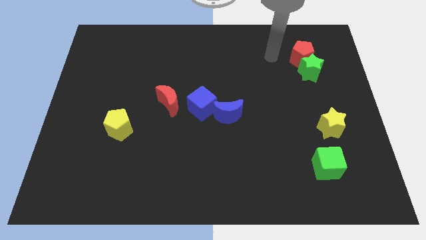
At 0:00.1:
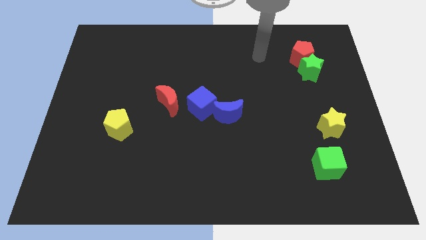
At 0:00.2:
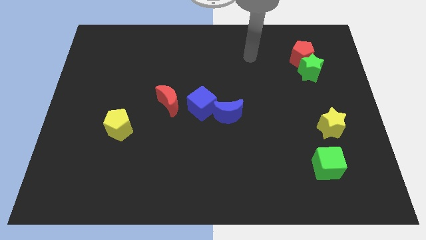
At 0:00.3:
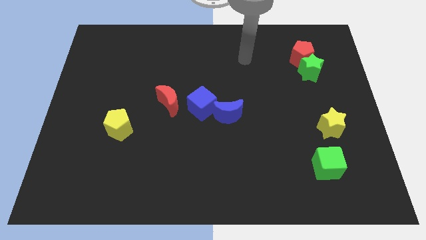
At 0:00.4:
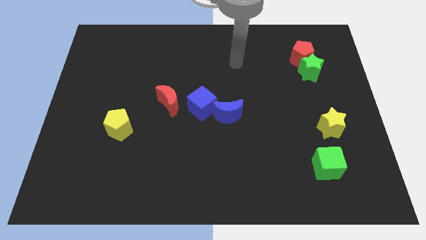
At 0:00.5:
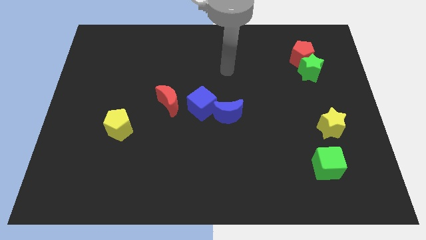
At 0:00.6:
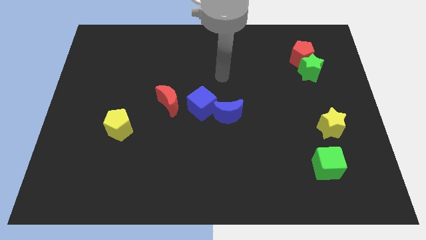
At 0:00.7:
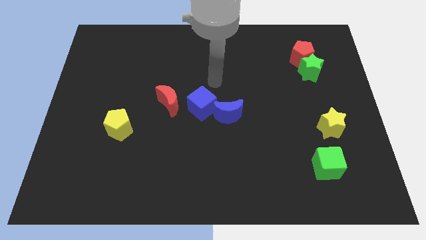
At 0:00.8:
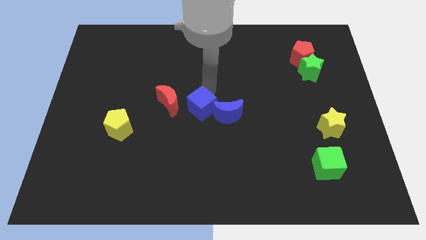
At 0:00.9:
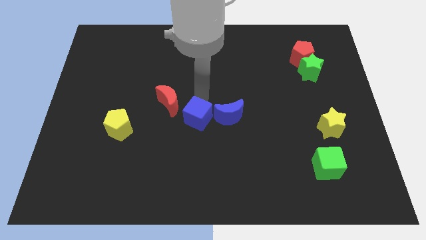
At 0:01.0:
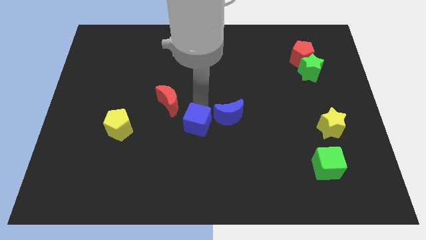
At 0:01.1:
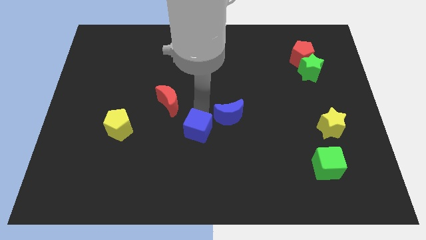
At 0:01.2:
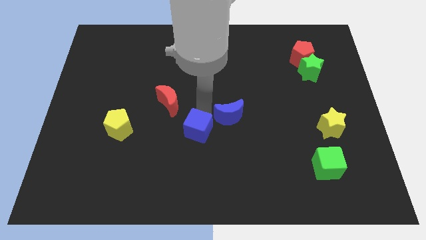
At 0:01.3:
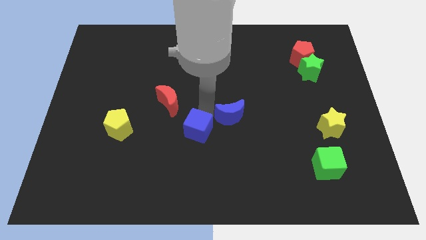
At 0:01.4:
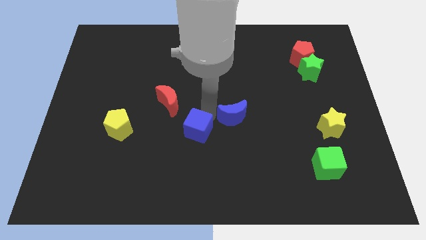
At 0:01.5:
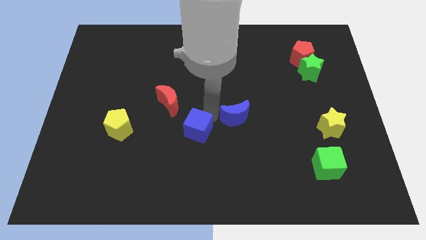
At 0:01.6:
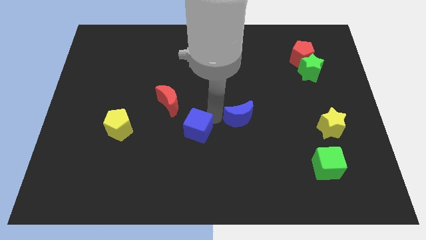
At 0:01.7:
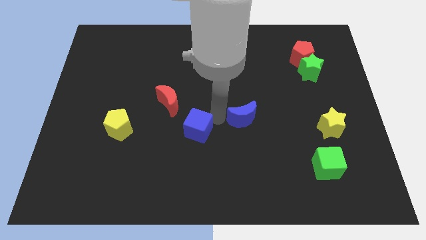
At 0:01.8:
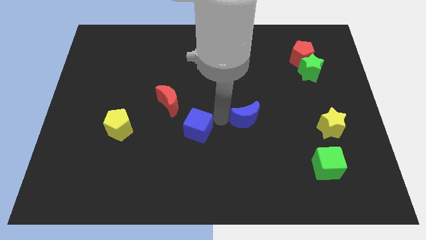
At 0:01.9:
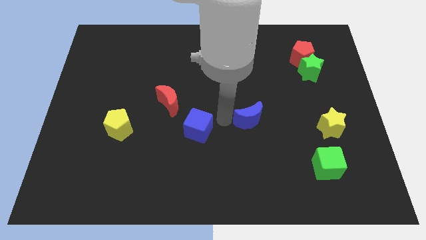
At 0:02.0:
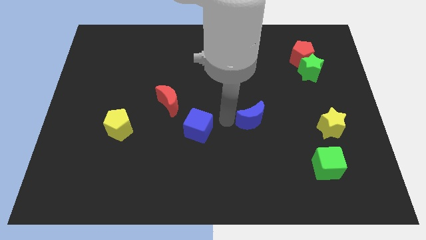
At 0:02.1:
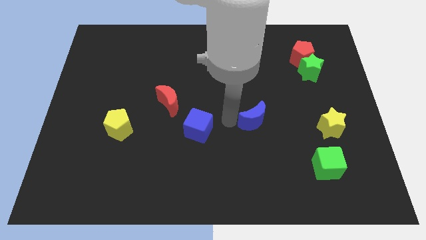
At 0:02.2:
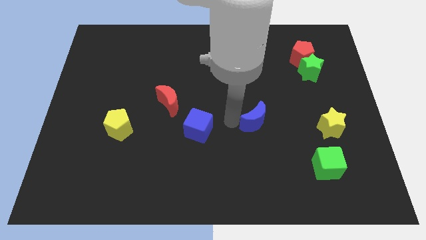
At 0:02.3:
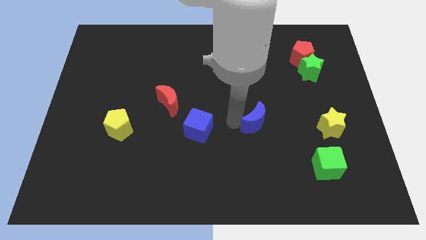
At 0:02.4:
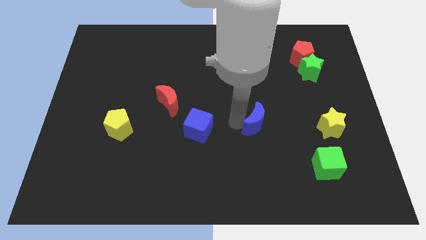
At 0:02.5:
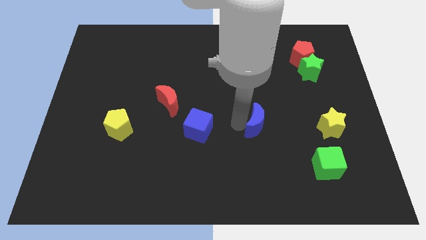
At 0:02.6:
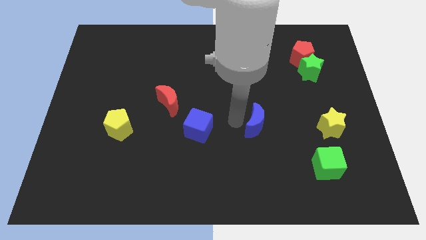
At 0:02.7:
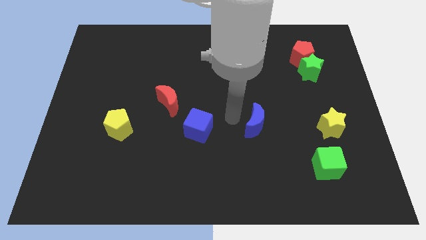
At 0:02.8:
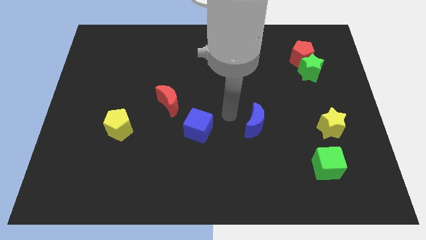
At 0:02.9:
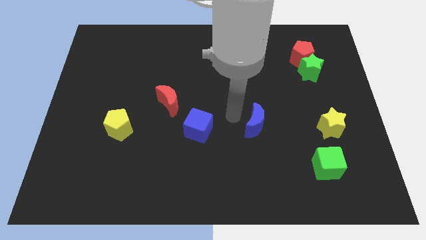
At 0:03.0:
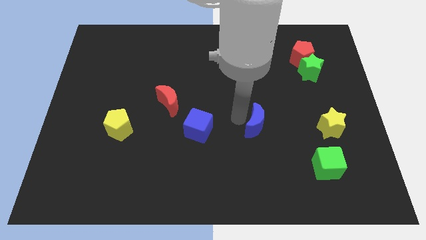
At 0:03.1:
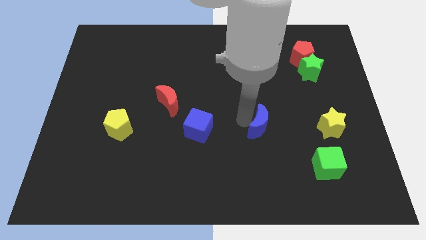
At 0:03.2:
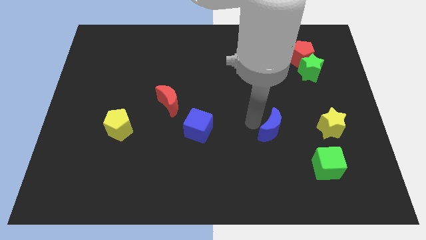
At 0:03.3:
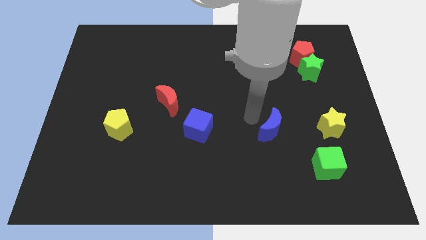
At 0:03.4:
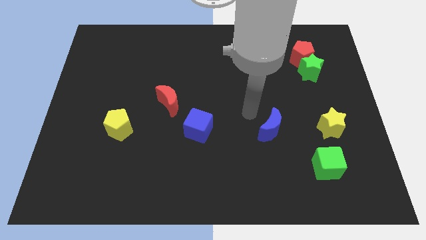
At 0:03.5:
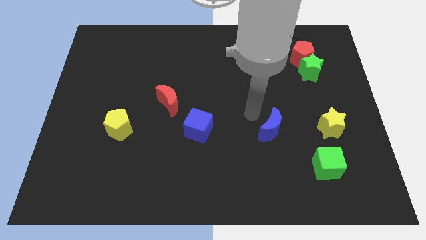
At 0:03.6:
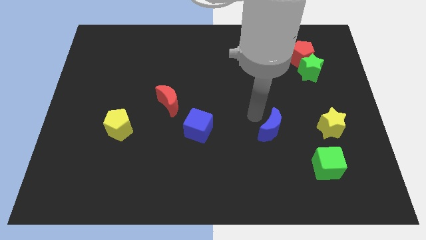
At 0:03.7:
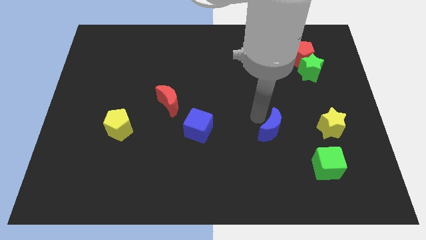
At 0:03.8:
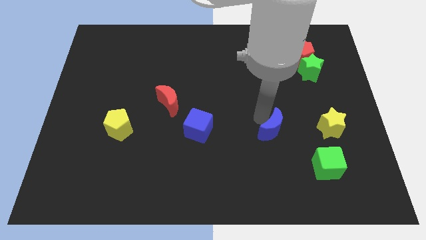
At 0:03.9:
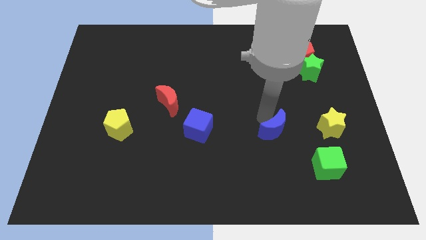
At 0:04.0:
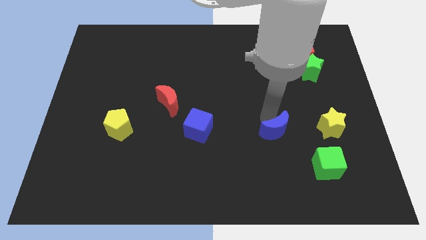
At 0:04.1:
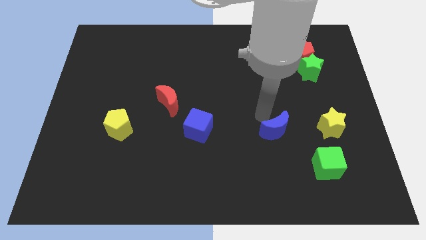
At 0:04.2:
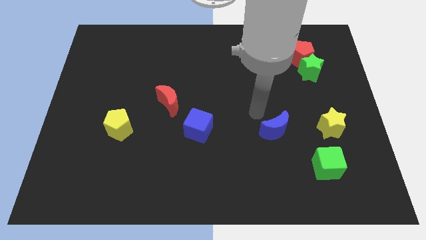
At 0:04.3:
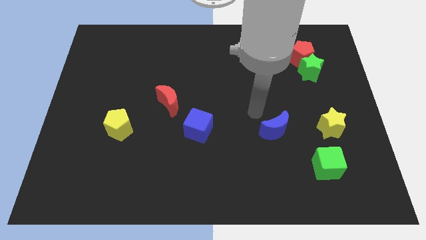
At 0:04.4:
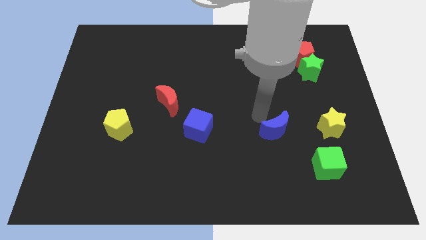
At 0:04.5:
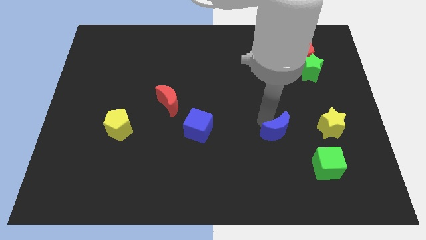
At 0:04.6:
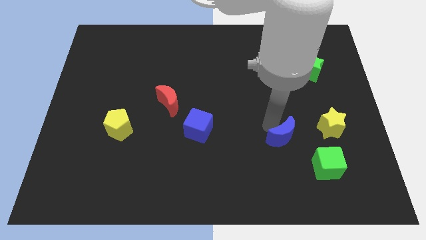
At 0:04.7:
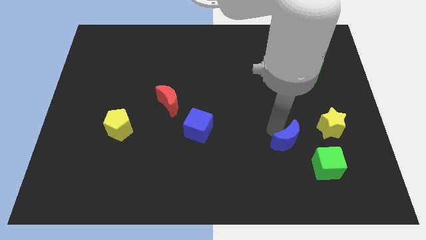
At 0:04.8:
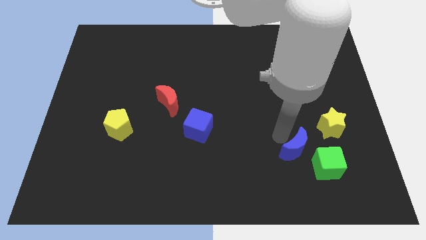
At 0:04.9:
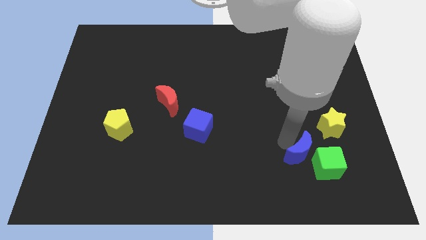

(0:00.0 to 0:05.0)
move the blue moon close to the green cube

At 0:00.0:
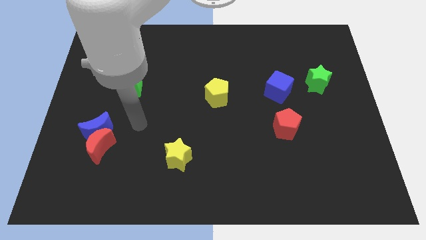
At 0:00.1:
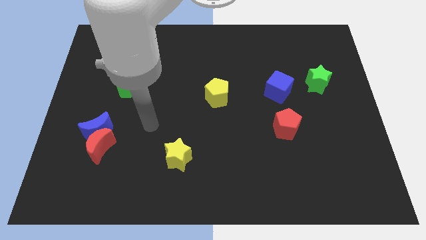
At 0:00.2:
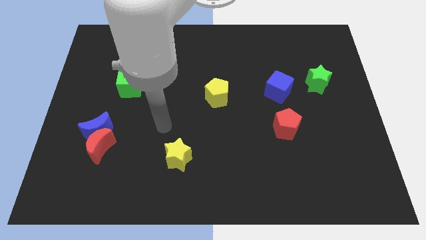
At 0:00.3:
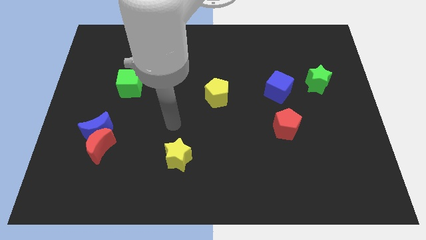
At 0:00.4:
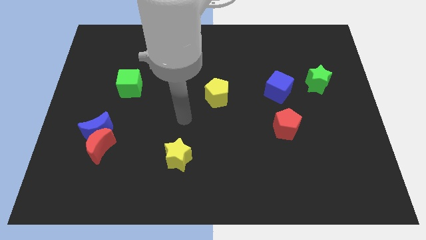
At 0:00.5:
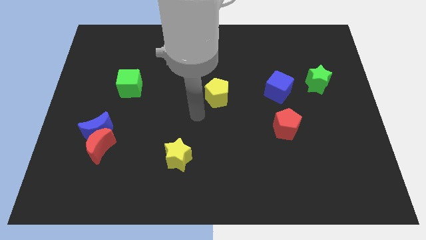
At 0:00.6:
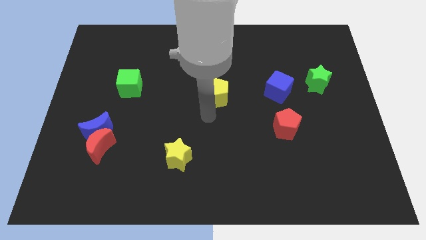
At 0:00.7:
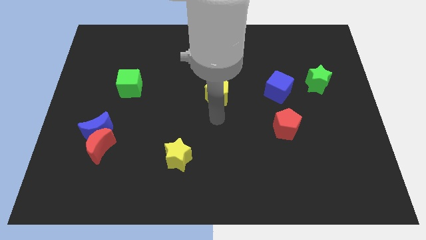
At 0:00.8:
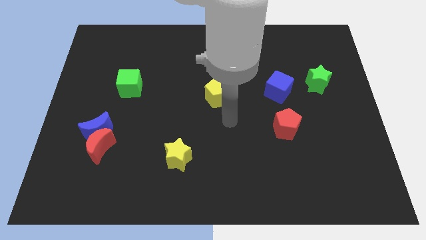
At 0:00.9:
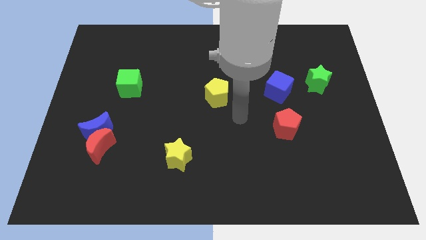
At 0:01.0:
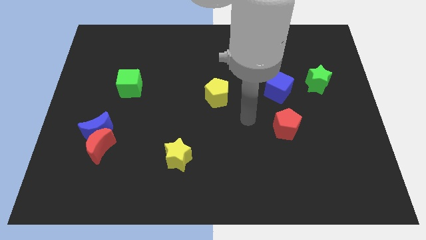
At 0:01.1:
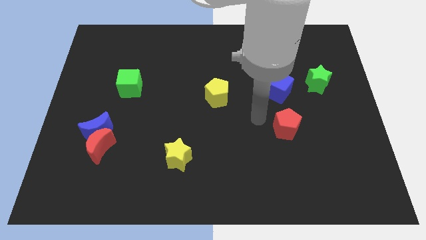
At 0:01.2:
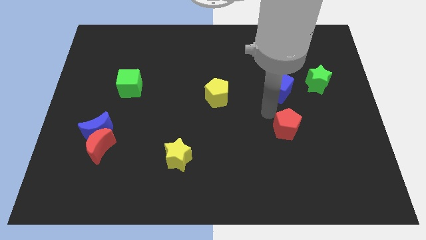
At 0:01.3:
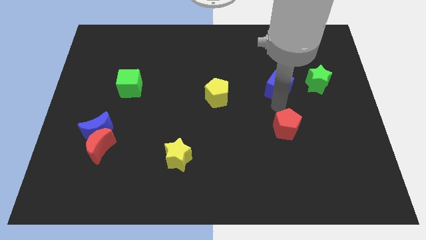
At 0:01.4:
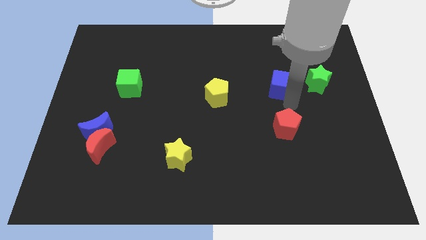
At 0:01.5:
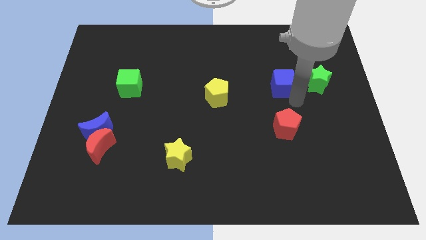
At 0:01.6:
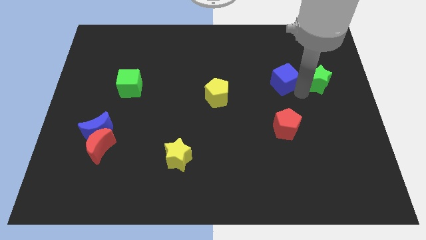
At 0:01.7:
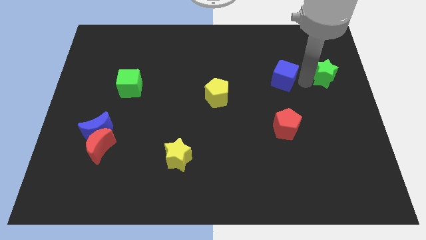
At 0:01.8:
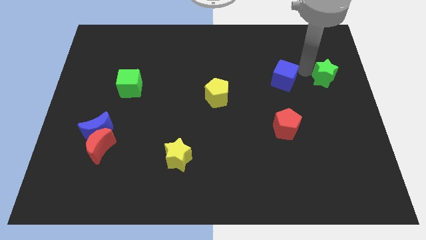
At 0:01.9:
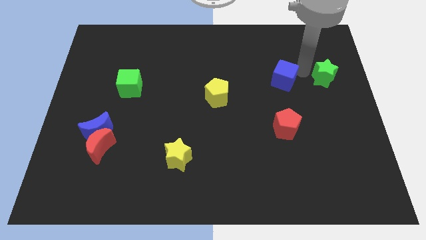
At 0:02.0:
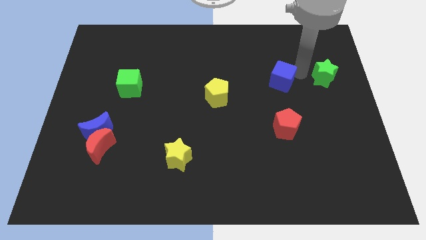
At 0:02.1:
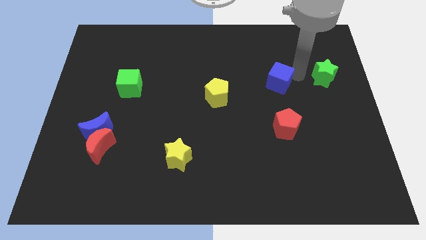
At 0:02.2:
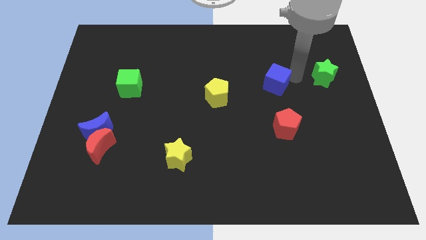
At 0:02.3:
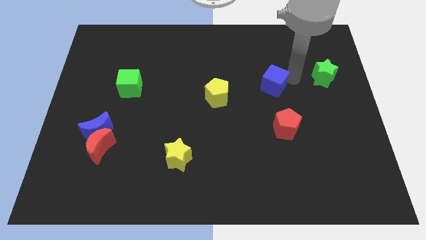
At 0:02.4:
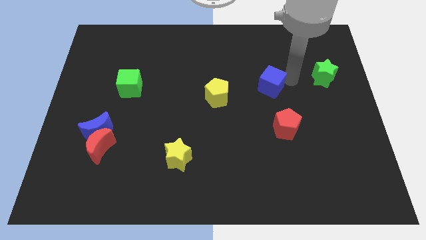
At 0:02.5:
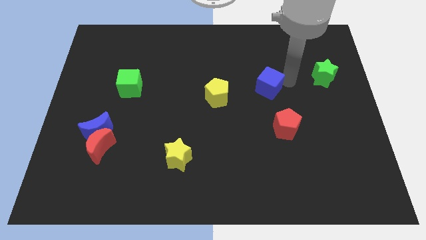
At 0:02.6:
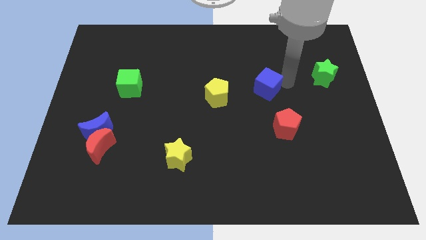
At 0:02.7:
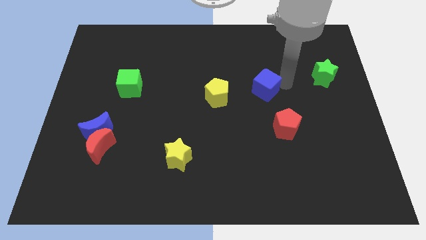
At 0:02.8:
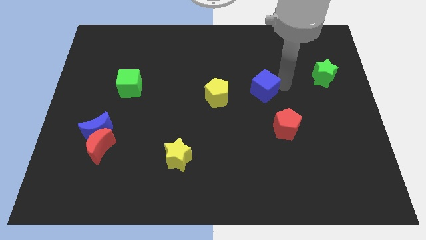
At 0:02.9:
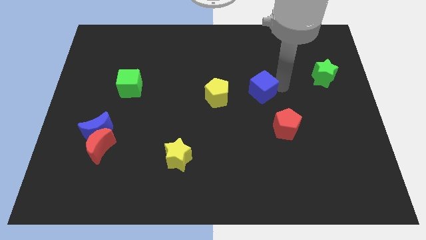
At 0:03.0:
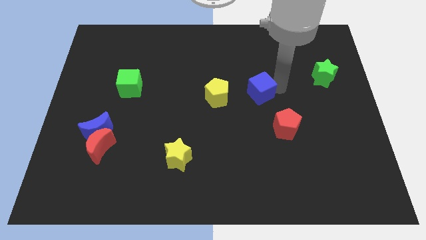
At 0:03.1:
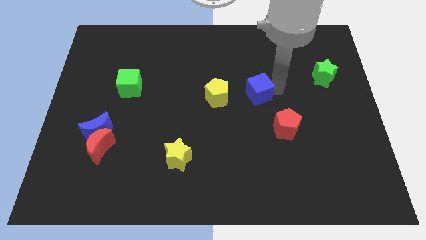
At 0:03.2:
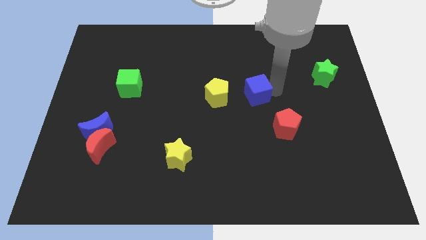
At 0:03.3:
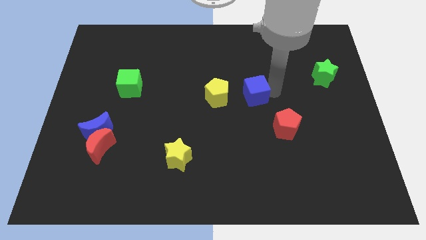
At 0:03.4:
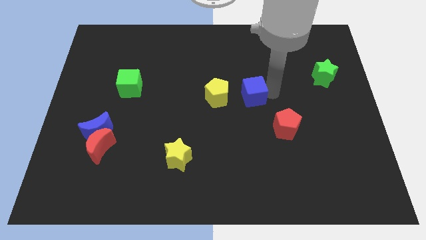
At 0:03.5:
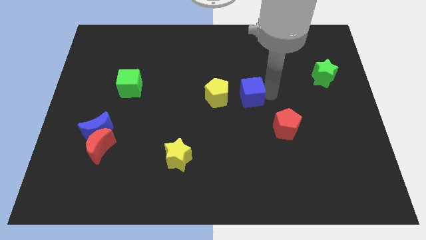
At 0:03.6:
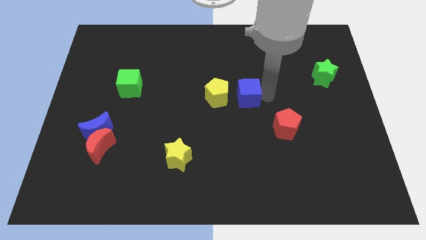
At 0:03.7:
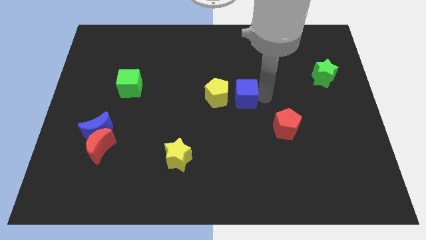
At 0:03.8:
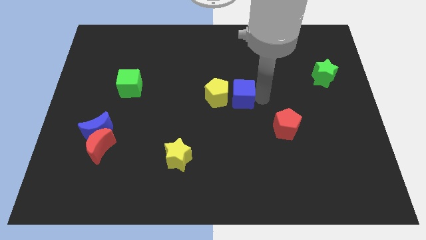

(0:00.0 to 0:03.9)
put the blue cube to the yellow pentagon
